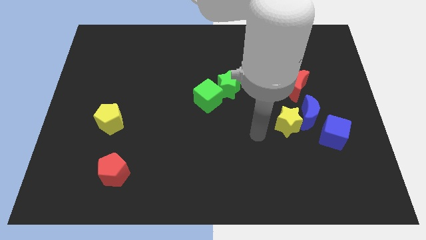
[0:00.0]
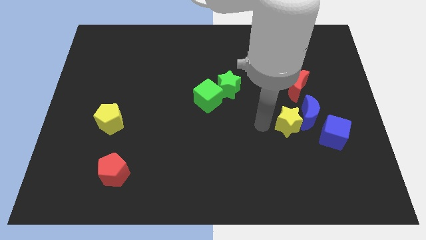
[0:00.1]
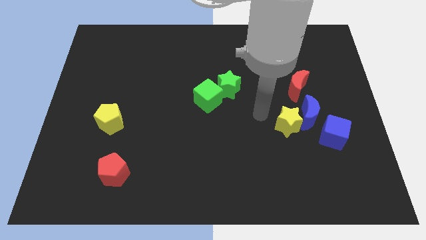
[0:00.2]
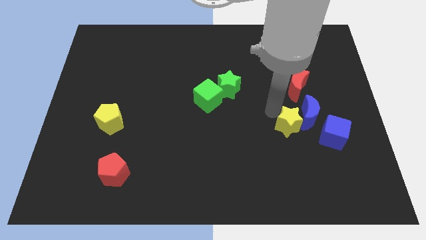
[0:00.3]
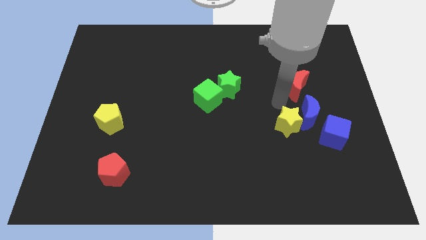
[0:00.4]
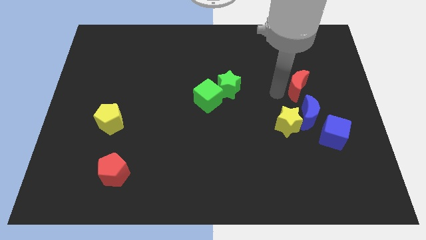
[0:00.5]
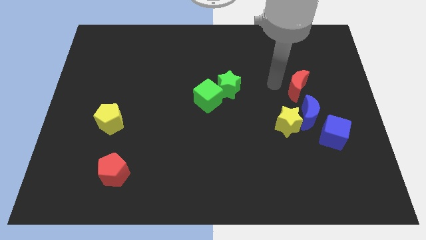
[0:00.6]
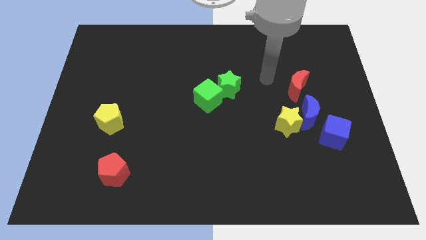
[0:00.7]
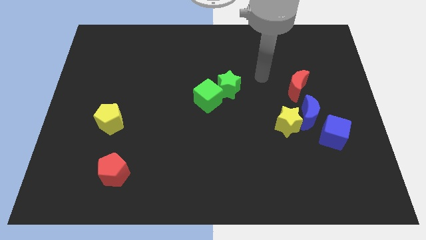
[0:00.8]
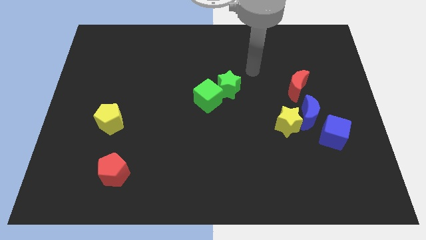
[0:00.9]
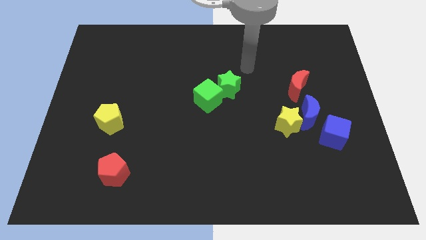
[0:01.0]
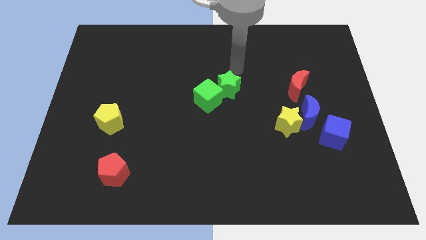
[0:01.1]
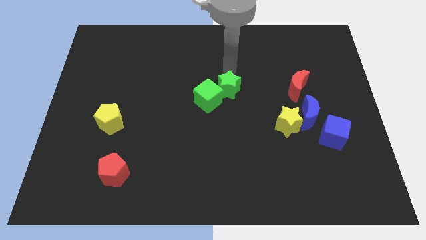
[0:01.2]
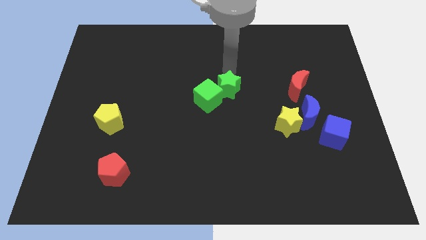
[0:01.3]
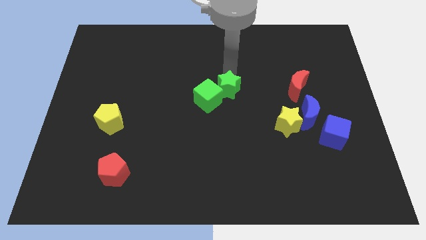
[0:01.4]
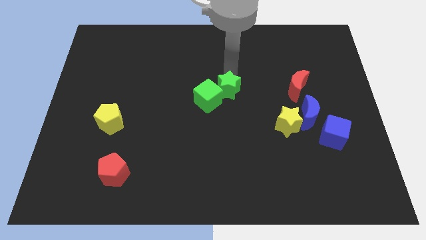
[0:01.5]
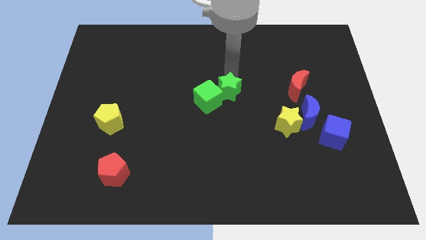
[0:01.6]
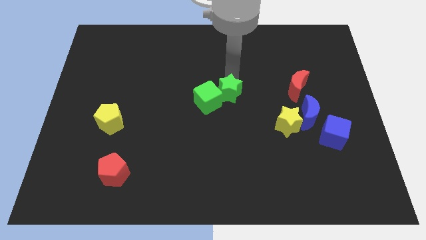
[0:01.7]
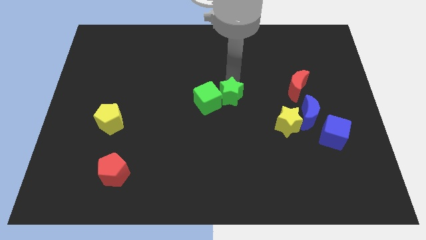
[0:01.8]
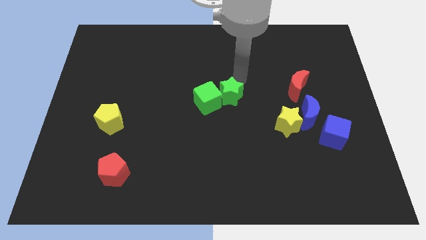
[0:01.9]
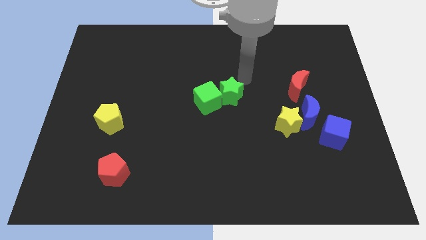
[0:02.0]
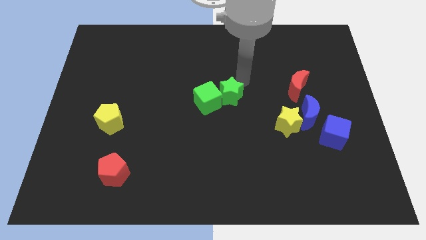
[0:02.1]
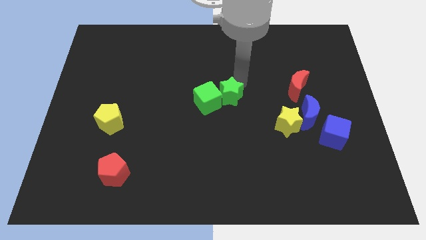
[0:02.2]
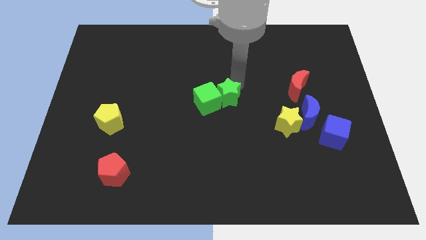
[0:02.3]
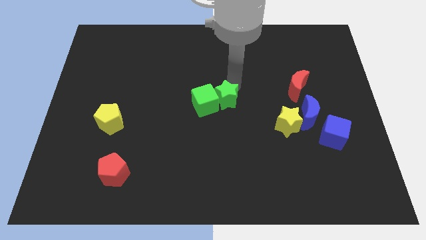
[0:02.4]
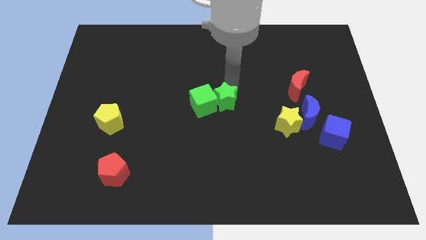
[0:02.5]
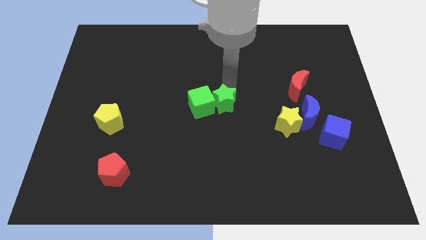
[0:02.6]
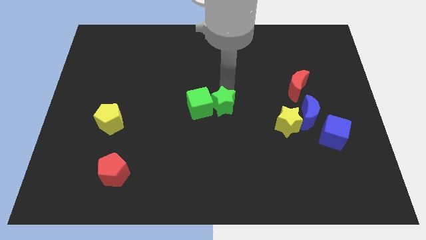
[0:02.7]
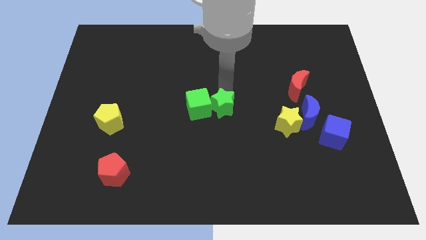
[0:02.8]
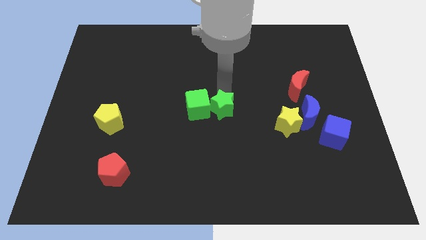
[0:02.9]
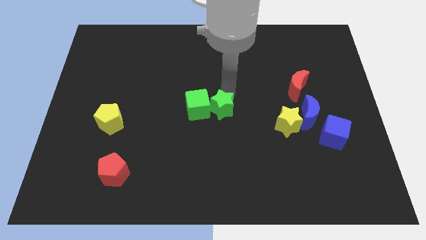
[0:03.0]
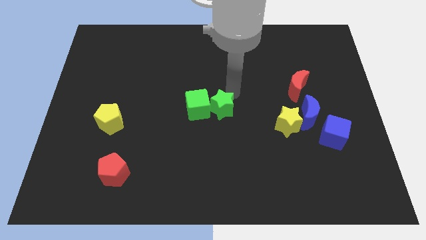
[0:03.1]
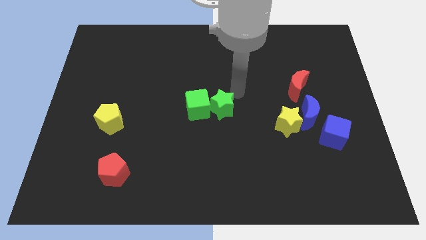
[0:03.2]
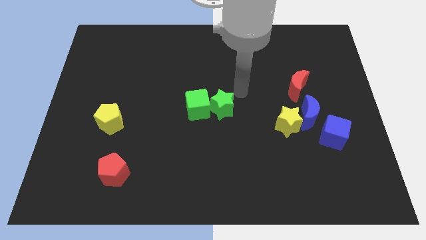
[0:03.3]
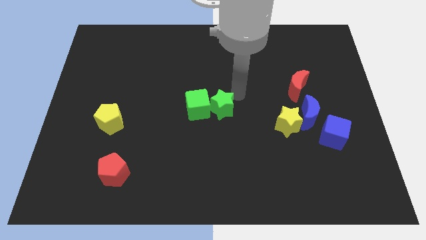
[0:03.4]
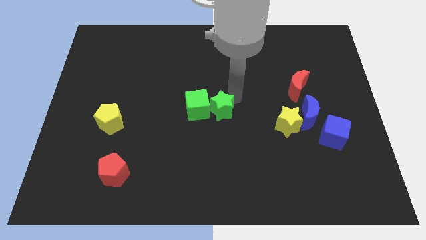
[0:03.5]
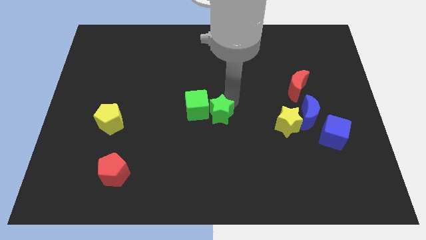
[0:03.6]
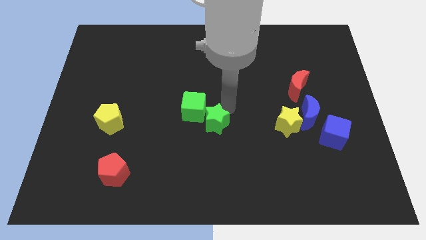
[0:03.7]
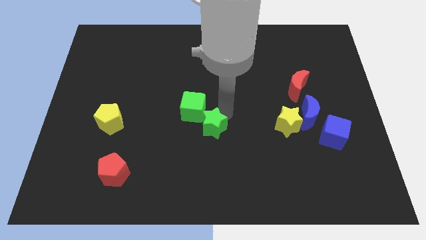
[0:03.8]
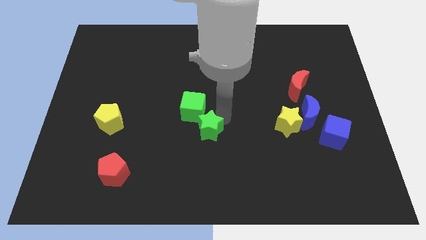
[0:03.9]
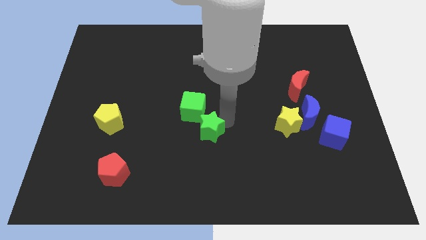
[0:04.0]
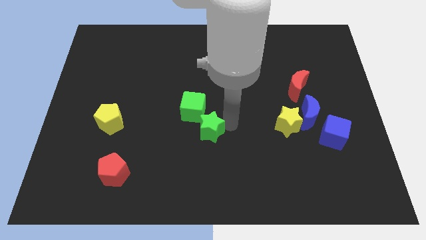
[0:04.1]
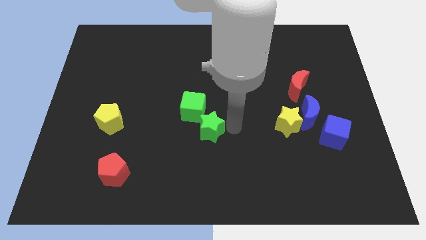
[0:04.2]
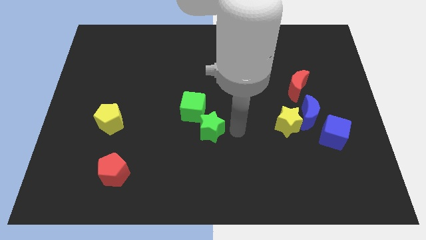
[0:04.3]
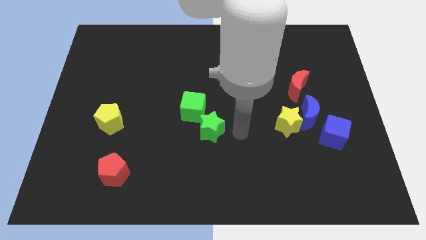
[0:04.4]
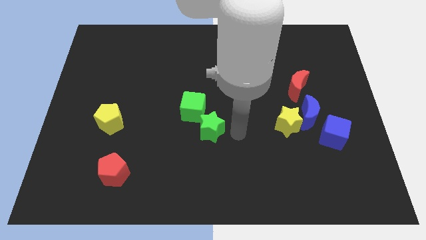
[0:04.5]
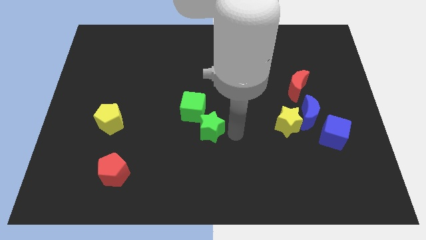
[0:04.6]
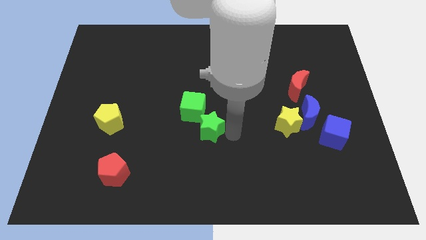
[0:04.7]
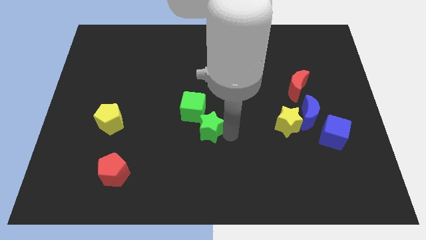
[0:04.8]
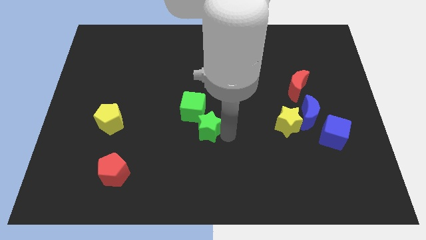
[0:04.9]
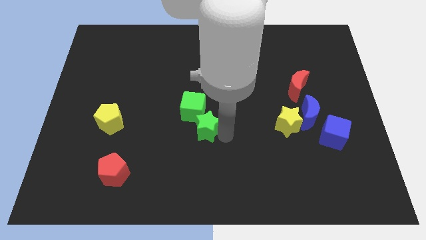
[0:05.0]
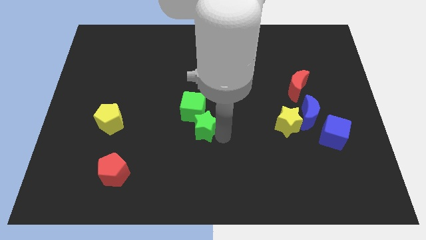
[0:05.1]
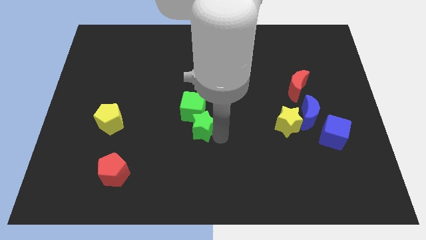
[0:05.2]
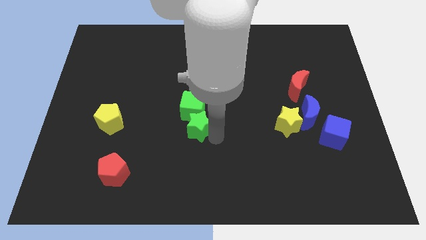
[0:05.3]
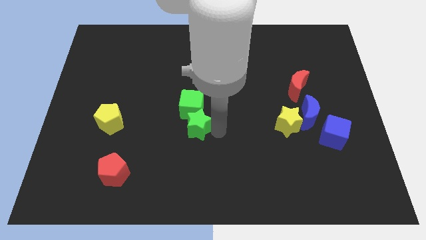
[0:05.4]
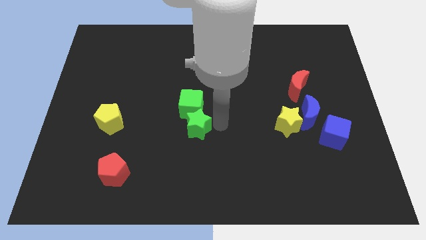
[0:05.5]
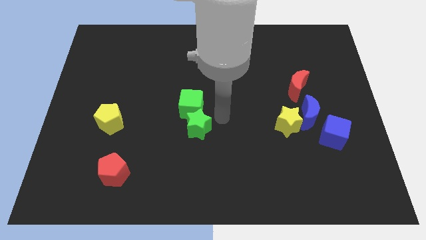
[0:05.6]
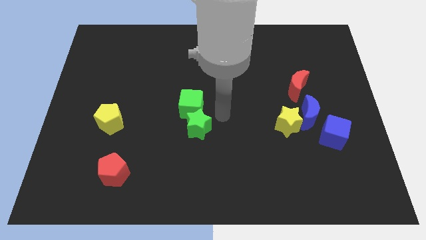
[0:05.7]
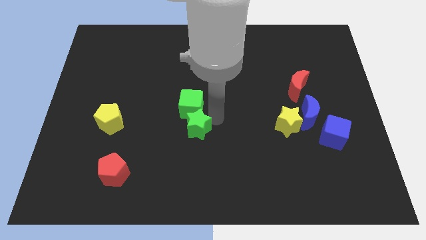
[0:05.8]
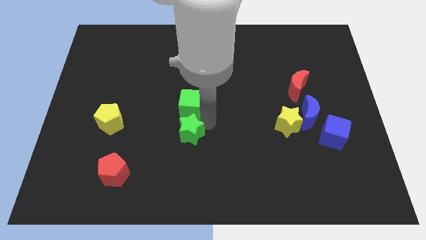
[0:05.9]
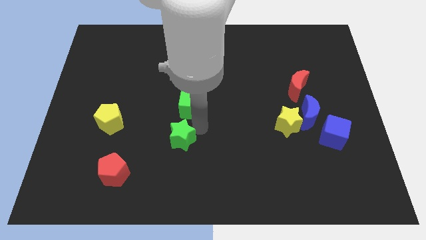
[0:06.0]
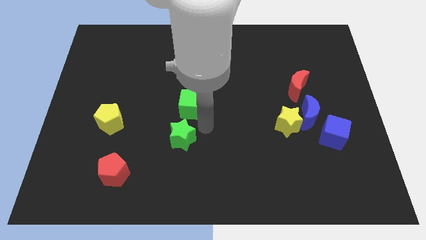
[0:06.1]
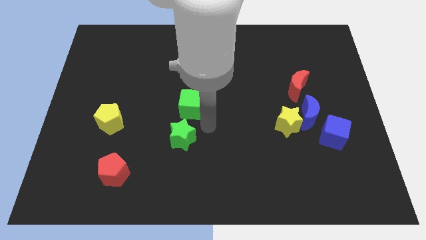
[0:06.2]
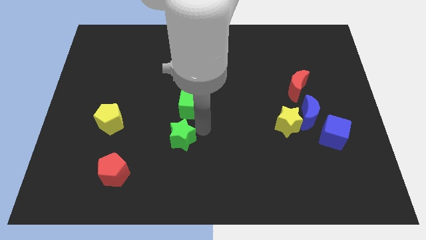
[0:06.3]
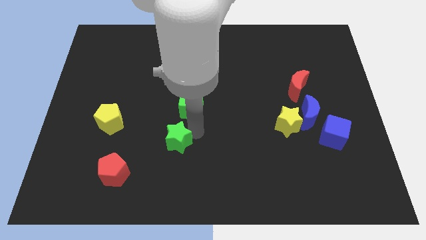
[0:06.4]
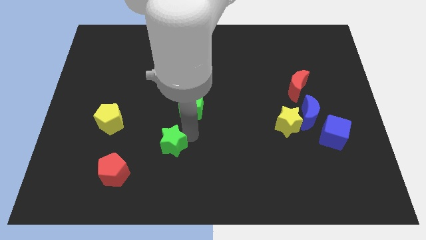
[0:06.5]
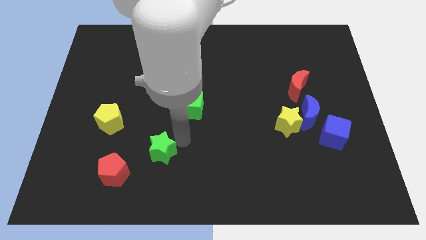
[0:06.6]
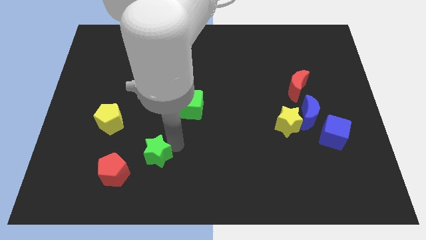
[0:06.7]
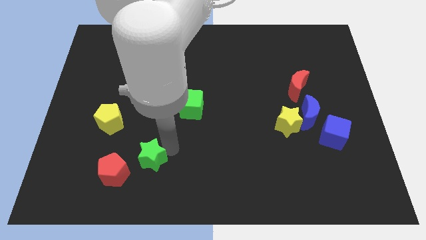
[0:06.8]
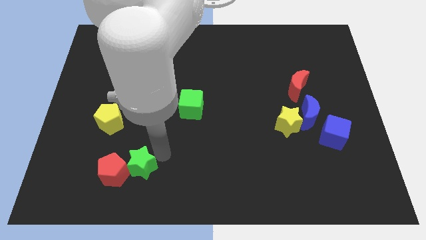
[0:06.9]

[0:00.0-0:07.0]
move the green star to the red pentagon
